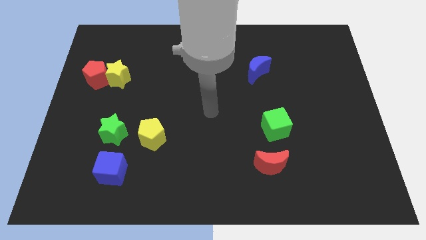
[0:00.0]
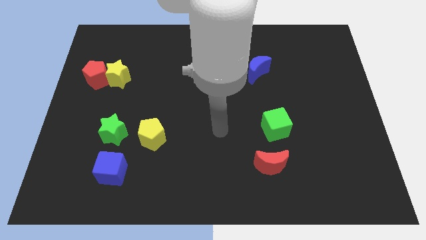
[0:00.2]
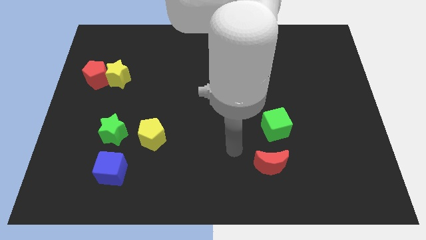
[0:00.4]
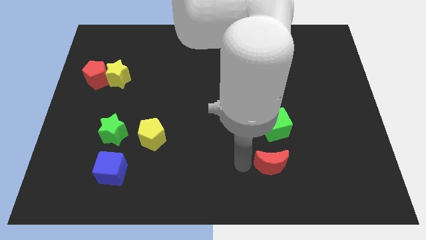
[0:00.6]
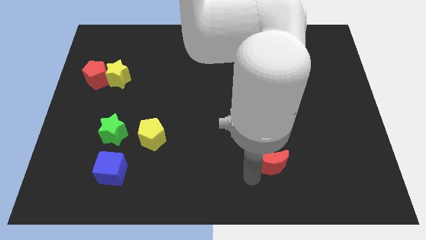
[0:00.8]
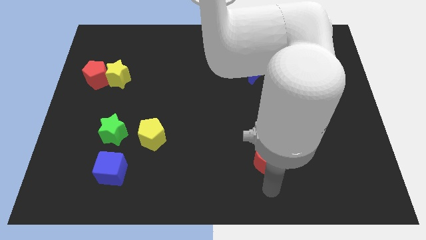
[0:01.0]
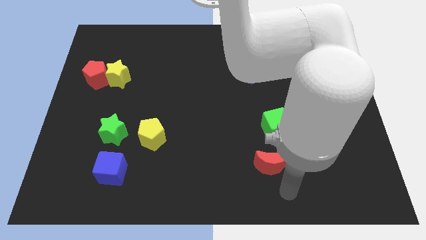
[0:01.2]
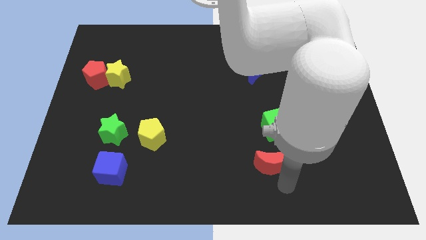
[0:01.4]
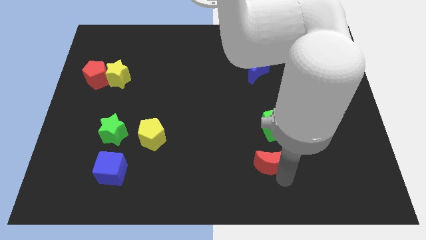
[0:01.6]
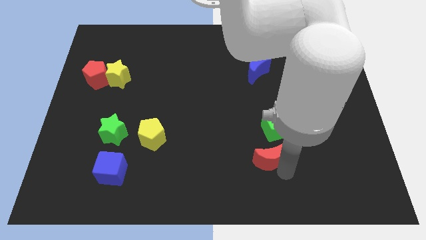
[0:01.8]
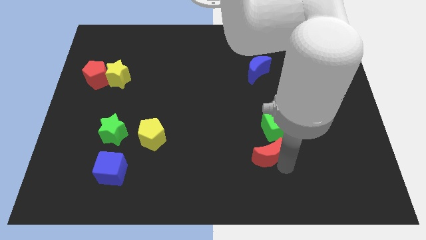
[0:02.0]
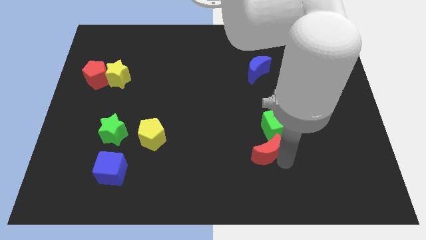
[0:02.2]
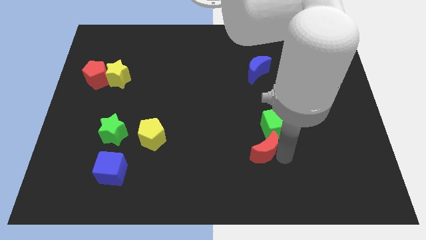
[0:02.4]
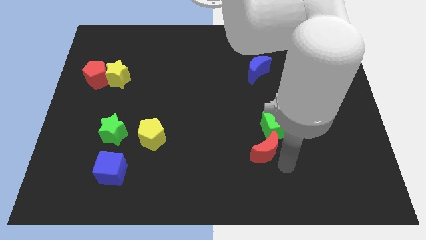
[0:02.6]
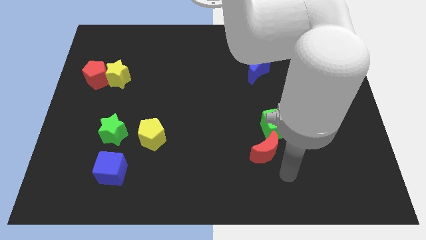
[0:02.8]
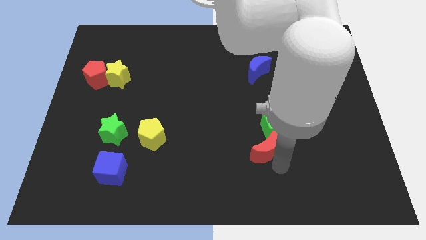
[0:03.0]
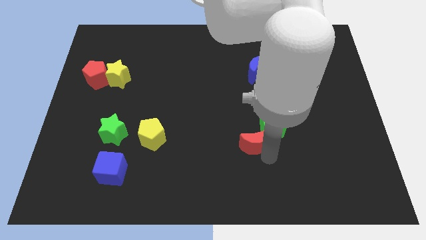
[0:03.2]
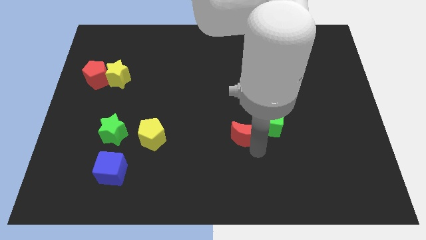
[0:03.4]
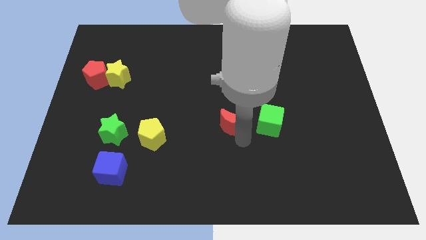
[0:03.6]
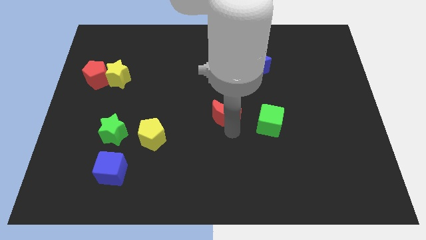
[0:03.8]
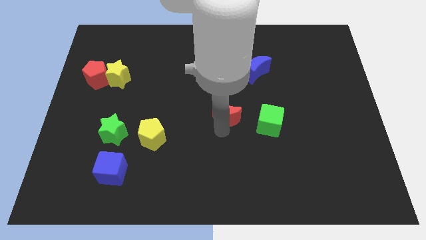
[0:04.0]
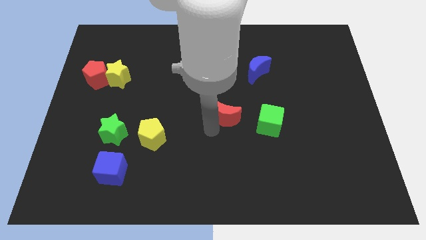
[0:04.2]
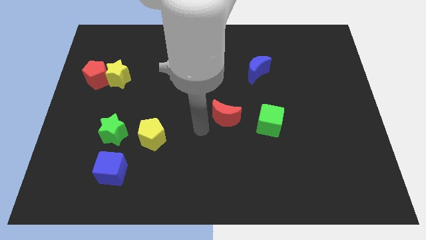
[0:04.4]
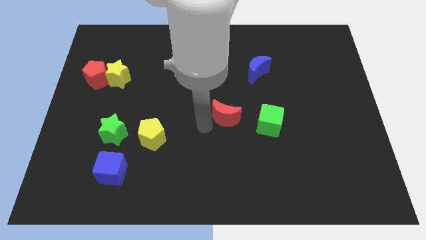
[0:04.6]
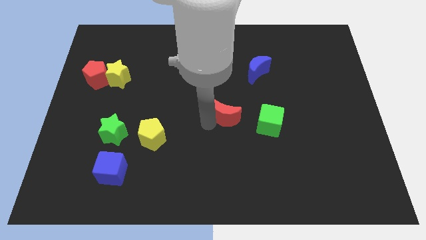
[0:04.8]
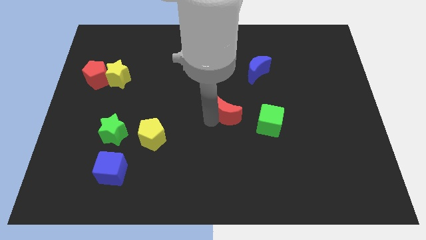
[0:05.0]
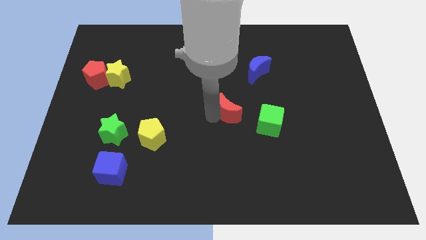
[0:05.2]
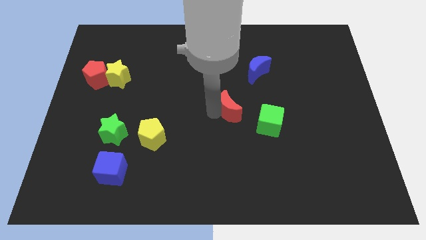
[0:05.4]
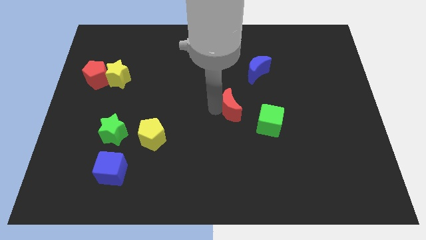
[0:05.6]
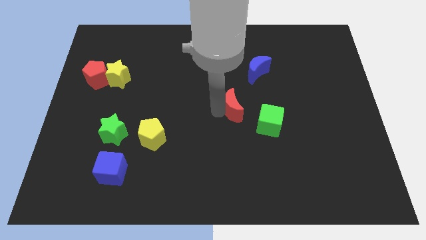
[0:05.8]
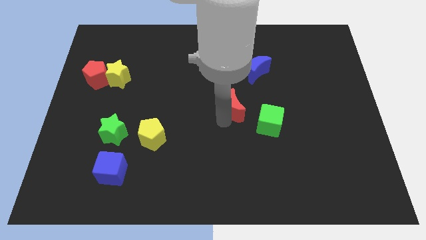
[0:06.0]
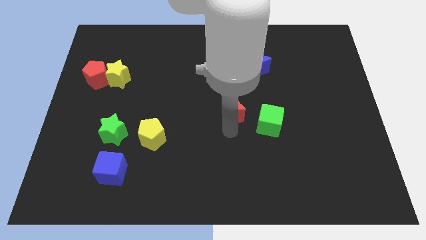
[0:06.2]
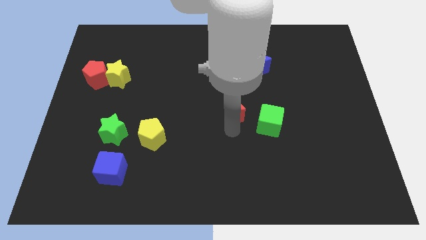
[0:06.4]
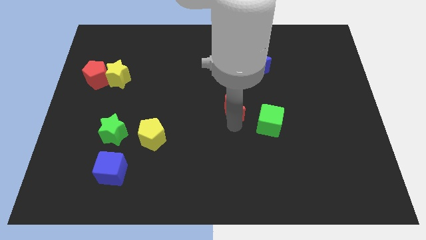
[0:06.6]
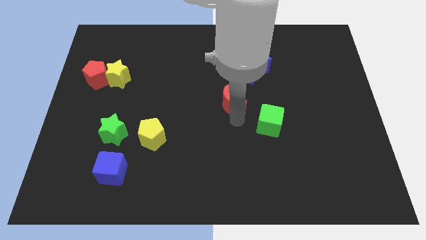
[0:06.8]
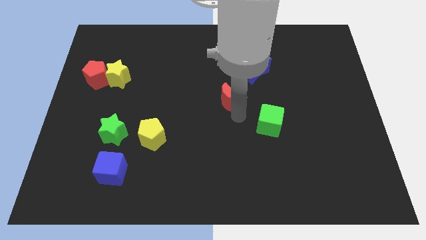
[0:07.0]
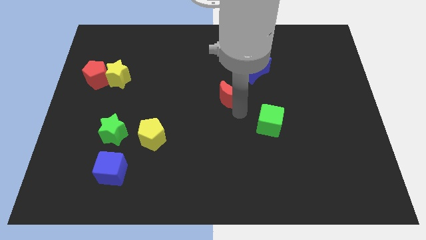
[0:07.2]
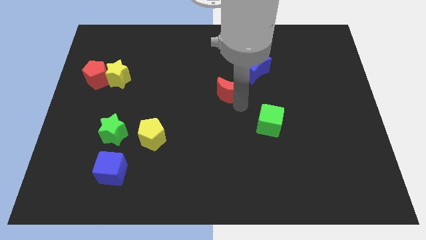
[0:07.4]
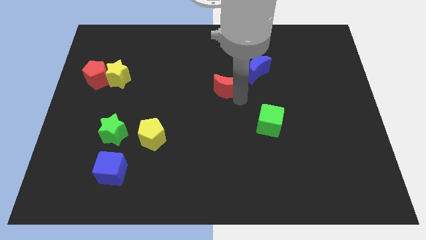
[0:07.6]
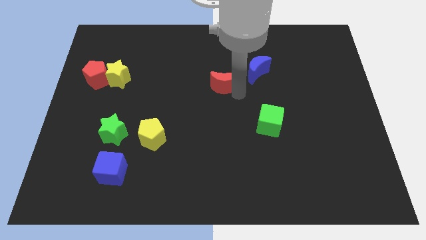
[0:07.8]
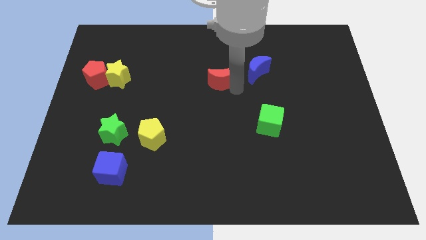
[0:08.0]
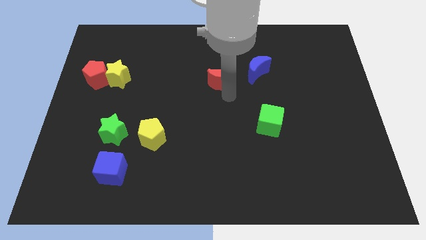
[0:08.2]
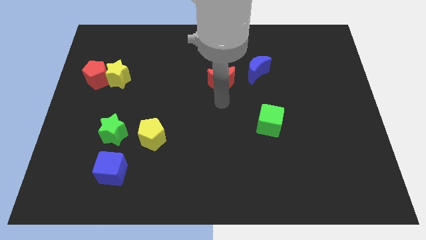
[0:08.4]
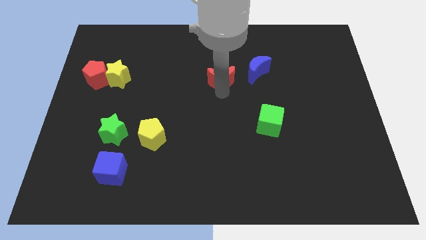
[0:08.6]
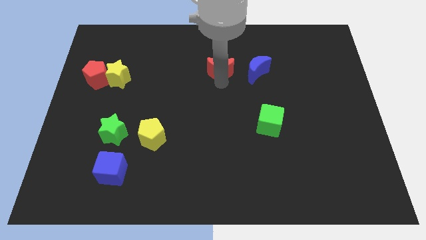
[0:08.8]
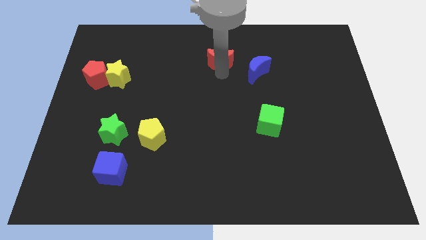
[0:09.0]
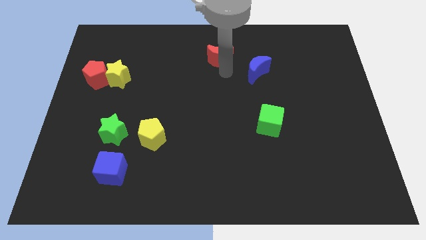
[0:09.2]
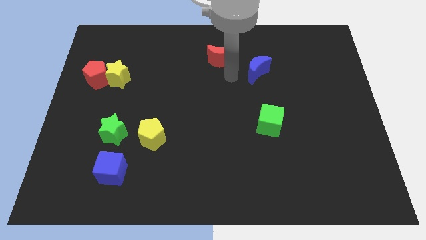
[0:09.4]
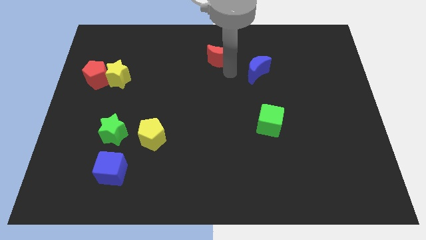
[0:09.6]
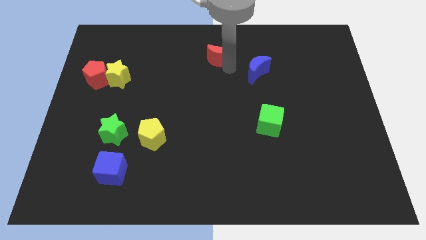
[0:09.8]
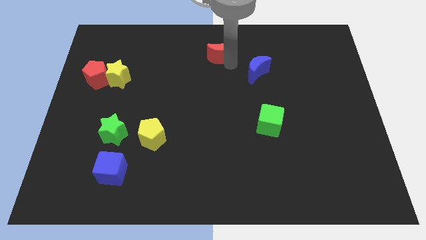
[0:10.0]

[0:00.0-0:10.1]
put the red moon to the top side

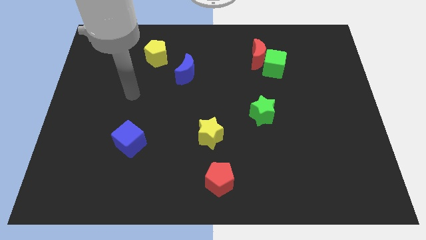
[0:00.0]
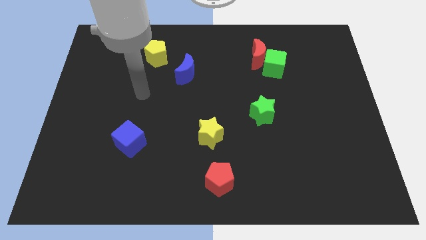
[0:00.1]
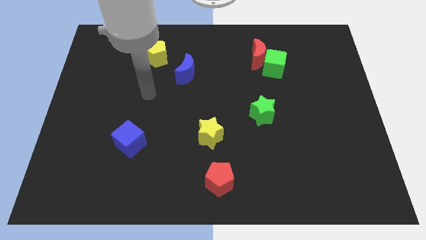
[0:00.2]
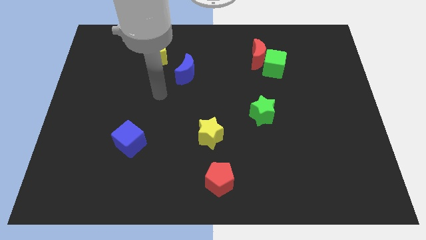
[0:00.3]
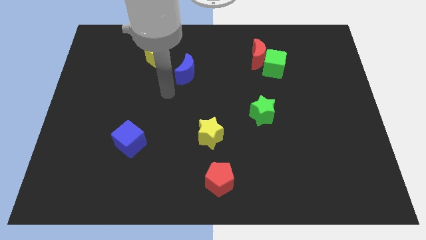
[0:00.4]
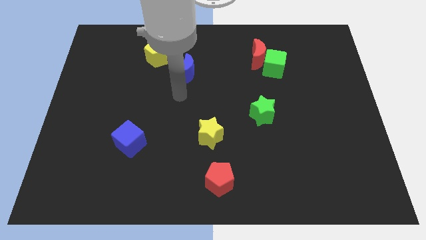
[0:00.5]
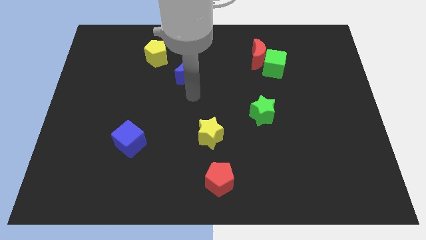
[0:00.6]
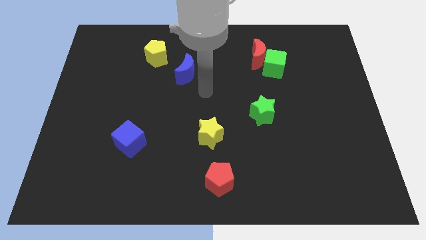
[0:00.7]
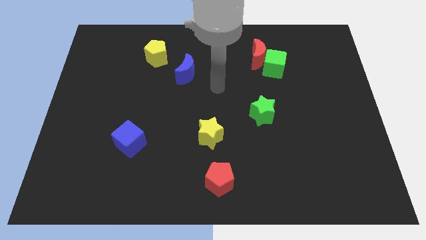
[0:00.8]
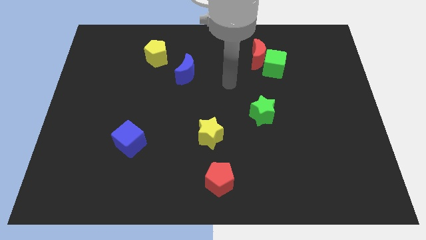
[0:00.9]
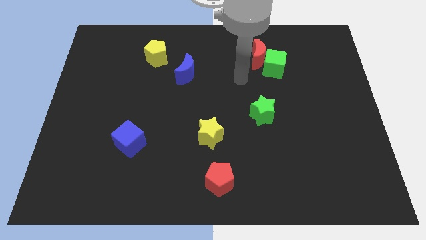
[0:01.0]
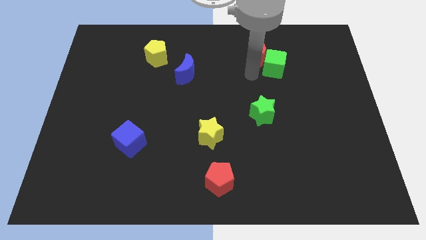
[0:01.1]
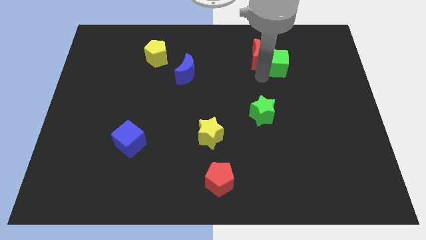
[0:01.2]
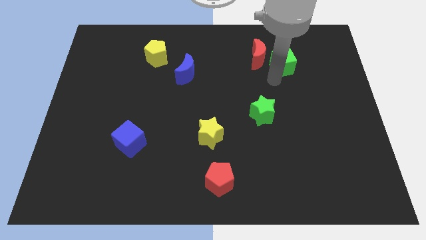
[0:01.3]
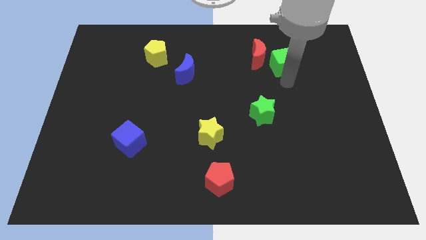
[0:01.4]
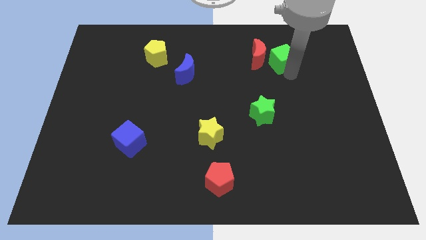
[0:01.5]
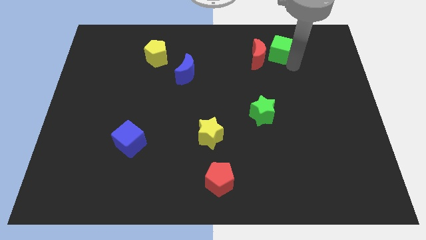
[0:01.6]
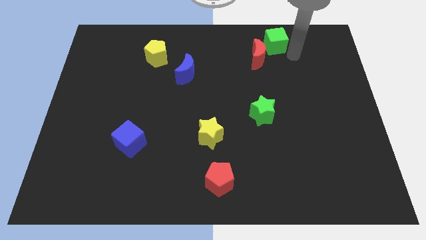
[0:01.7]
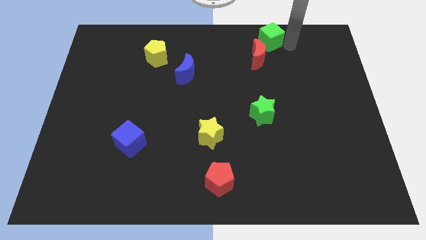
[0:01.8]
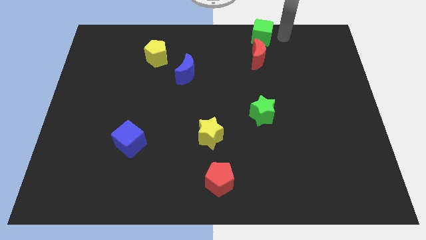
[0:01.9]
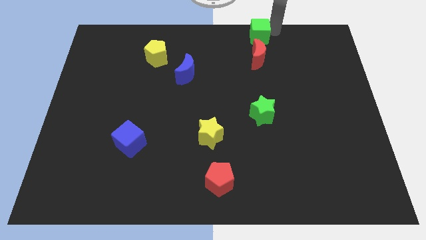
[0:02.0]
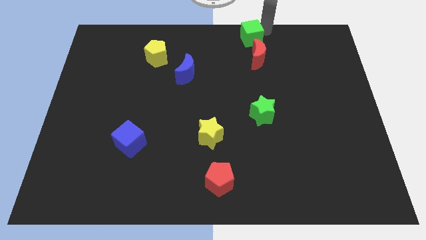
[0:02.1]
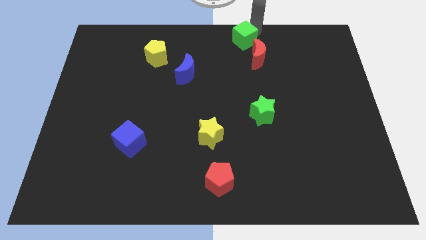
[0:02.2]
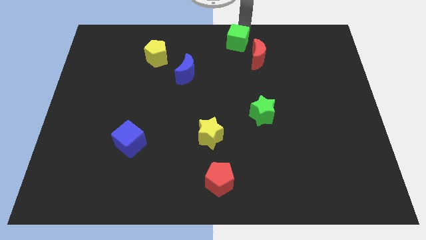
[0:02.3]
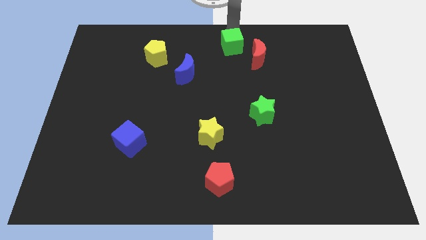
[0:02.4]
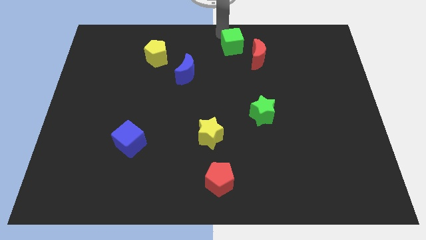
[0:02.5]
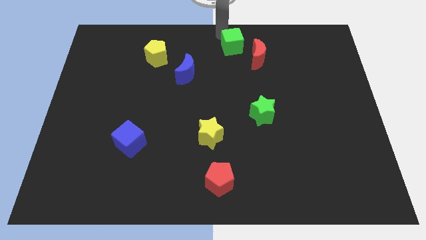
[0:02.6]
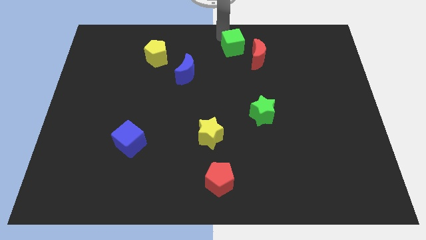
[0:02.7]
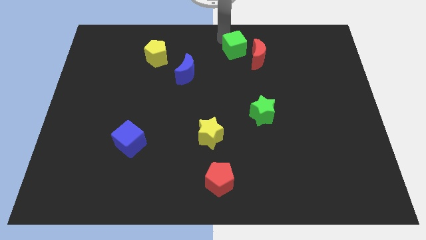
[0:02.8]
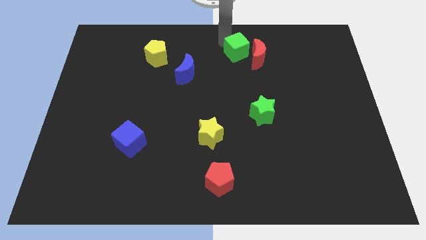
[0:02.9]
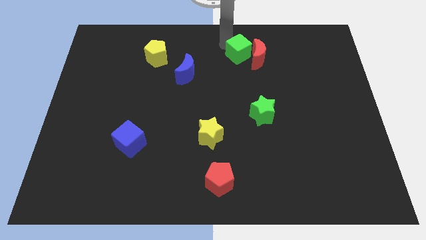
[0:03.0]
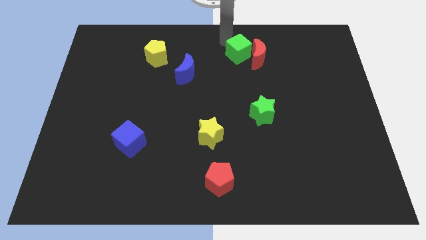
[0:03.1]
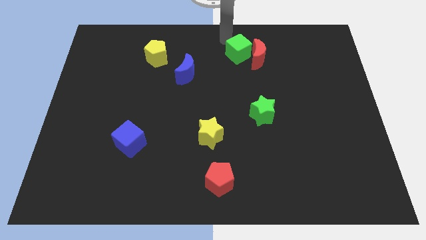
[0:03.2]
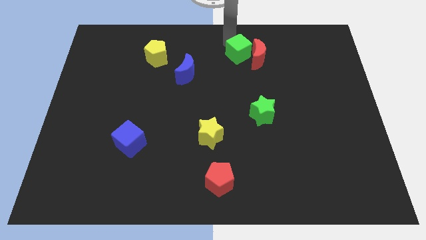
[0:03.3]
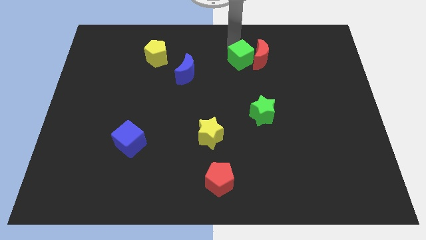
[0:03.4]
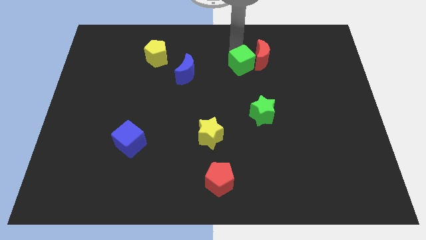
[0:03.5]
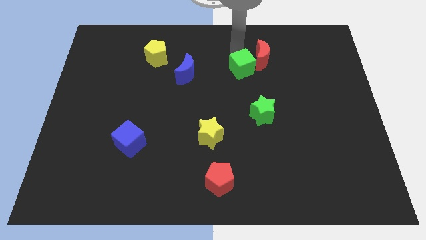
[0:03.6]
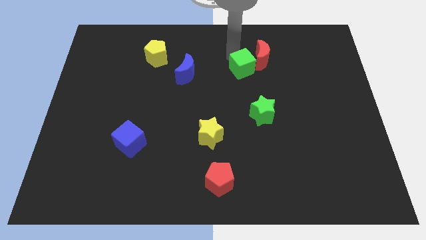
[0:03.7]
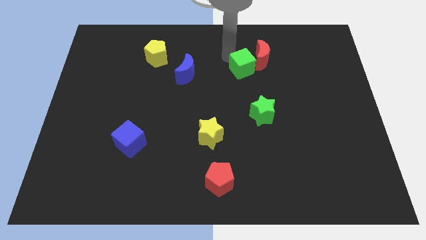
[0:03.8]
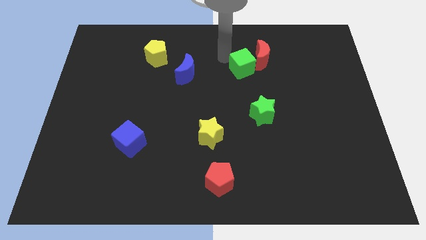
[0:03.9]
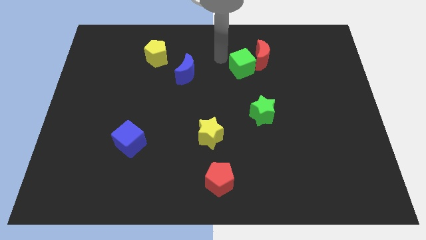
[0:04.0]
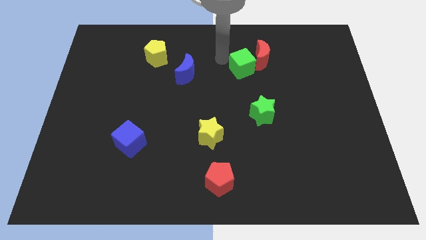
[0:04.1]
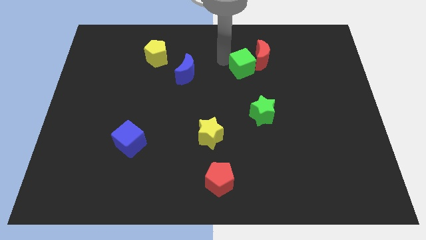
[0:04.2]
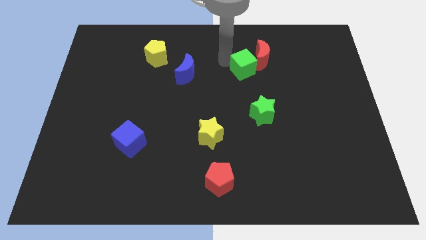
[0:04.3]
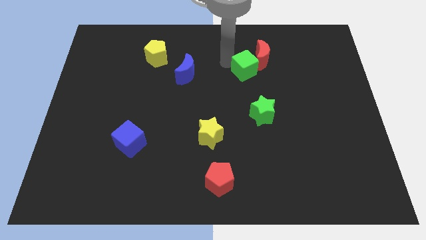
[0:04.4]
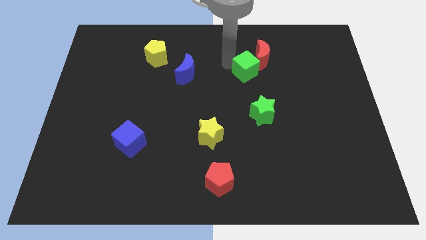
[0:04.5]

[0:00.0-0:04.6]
put the green cube to the middle
